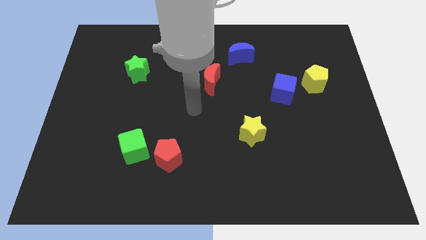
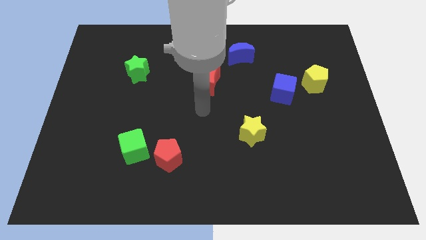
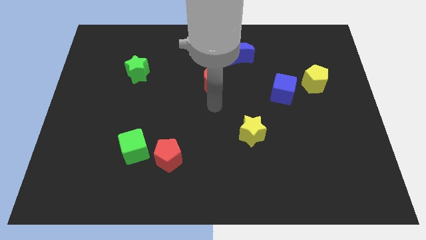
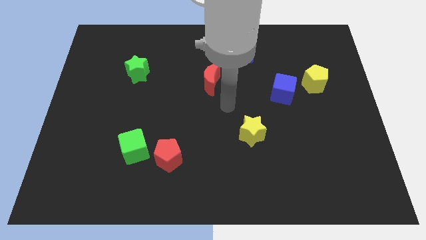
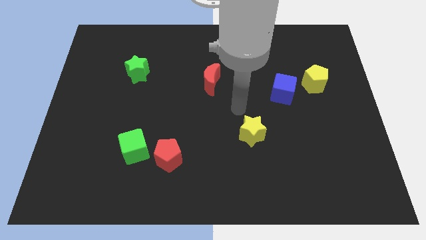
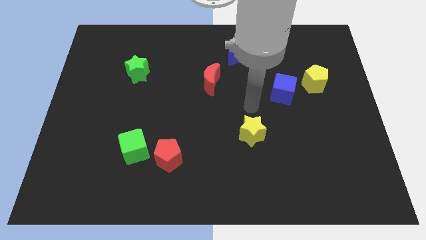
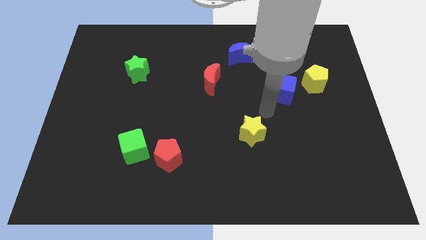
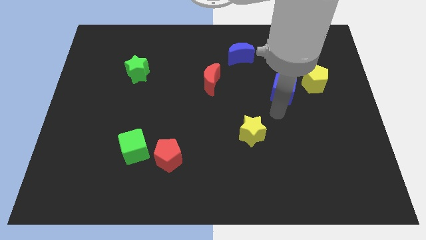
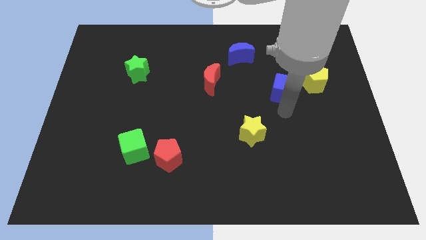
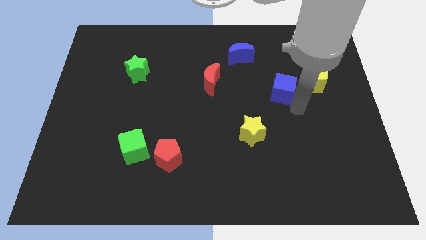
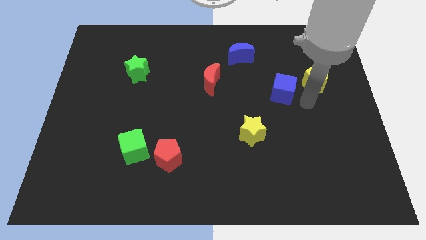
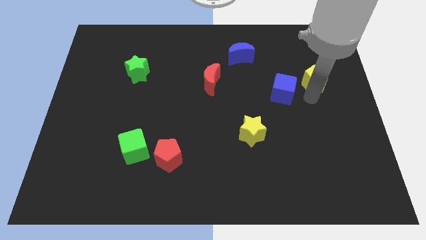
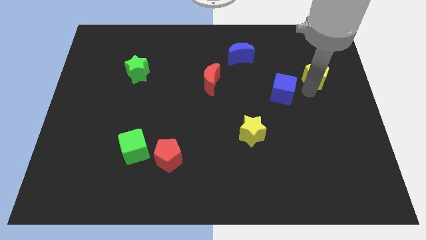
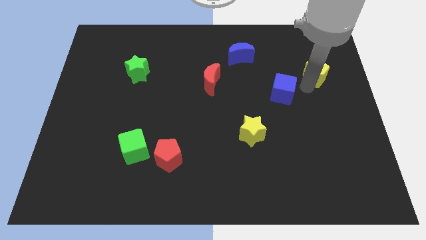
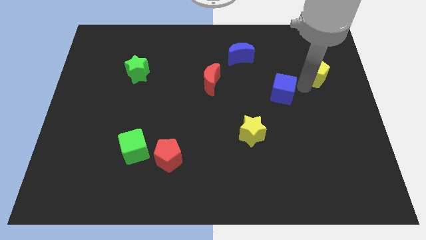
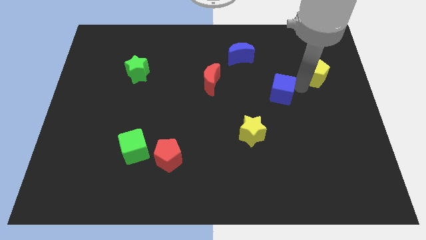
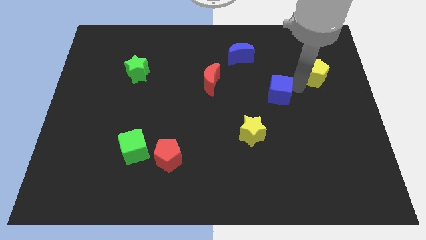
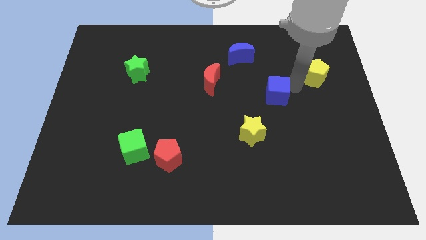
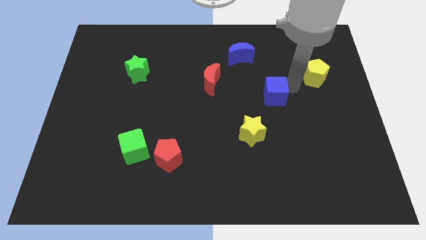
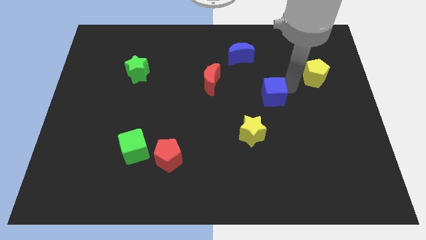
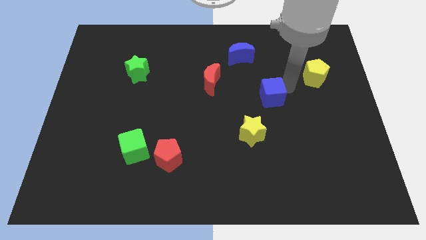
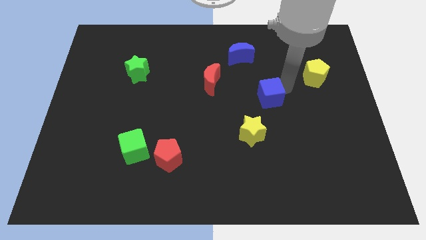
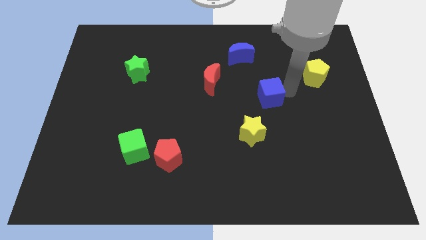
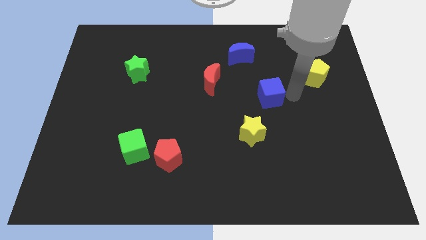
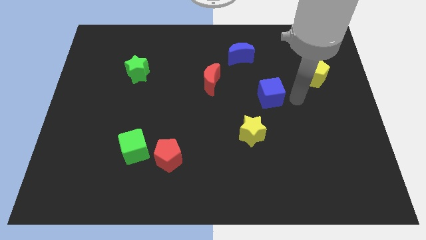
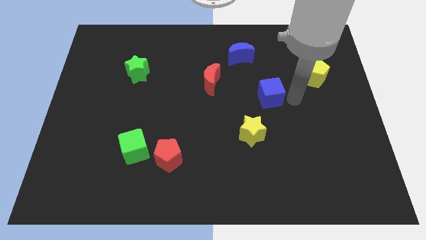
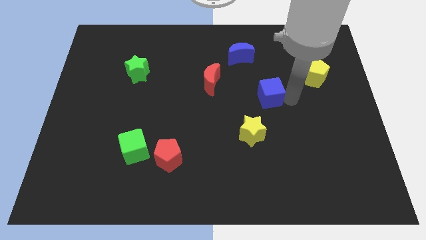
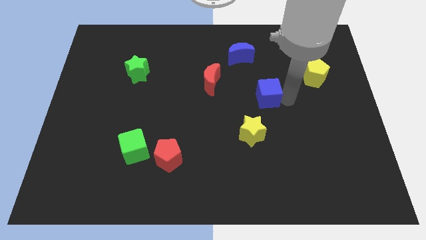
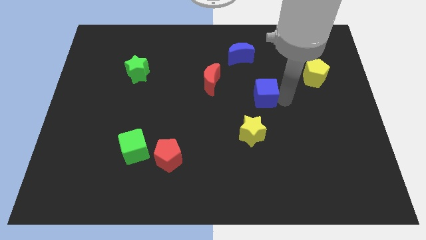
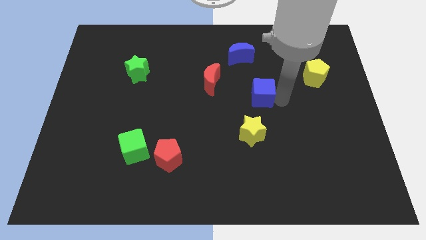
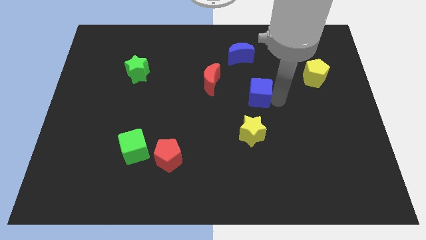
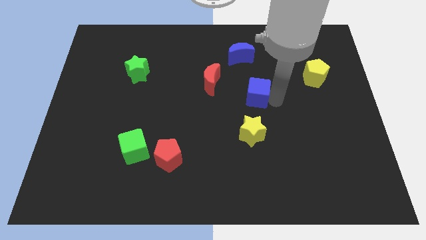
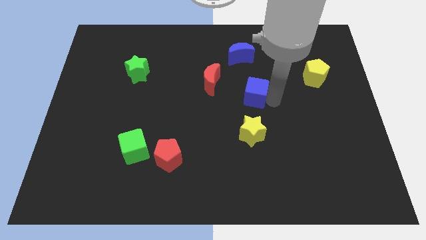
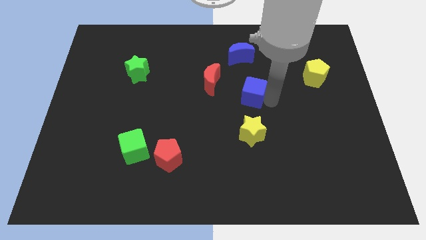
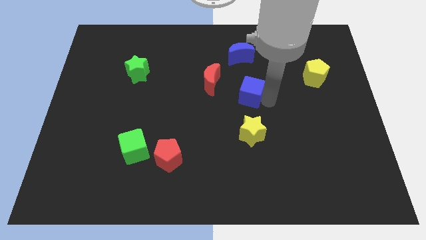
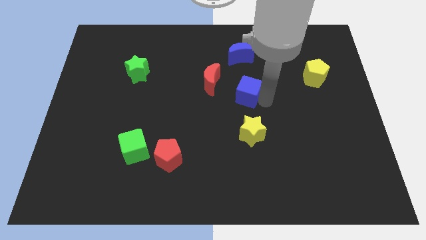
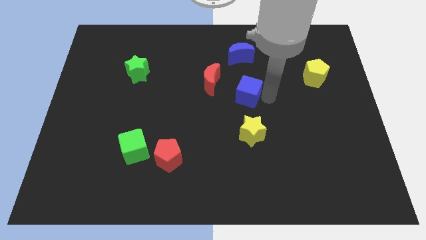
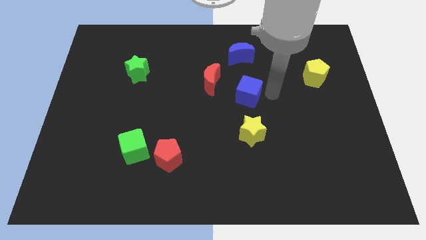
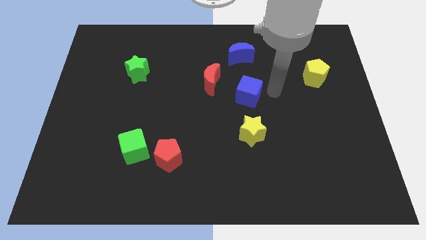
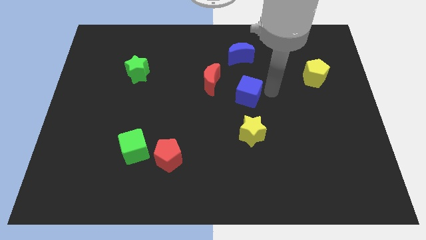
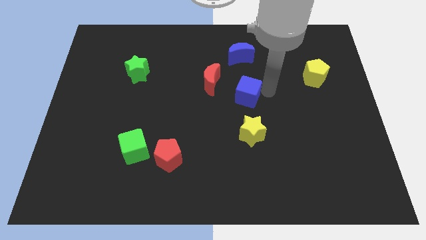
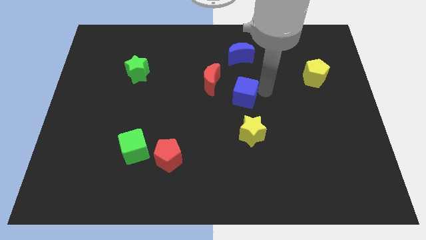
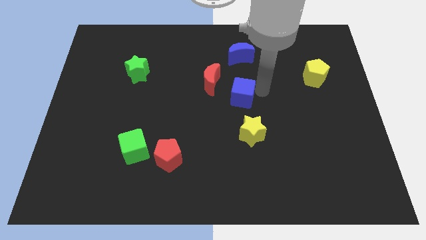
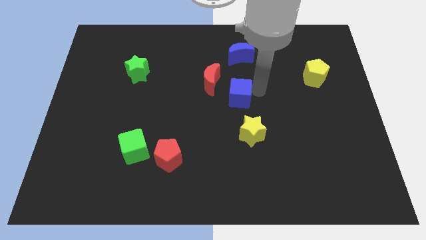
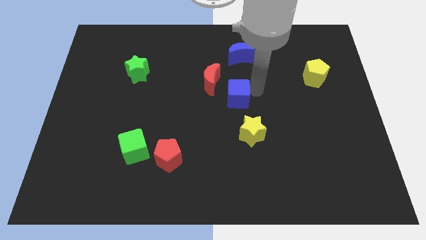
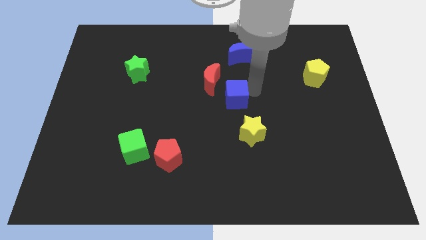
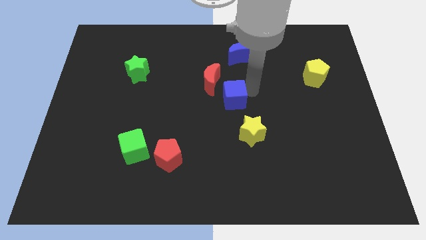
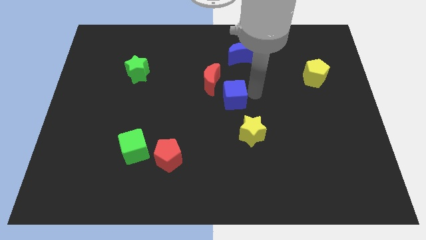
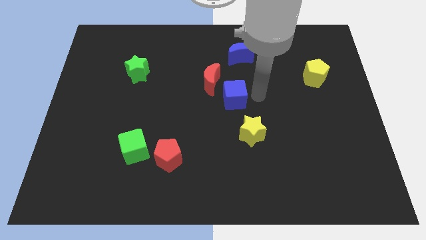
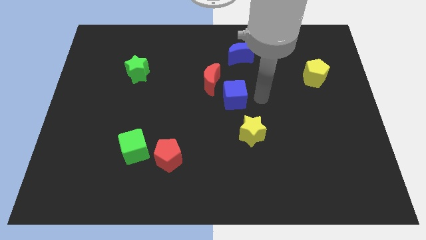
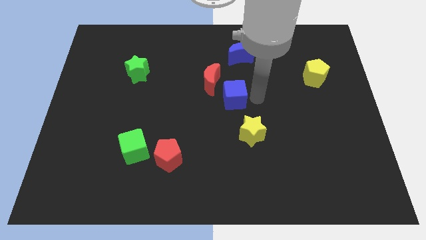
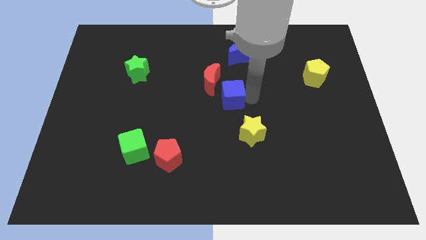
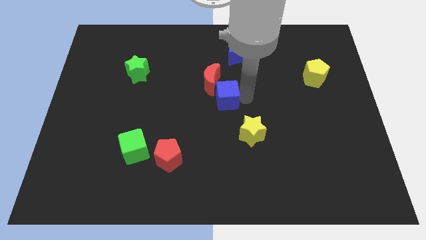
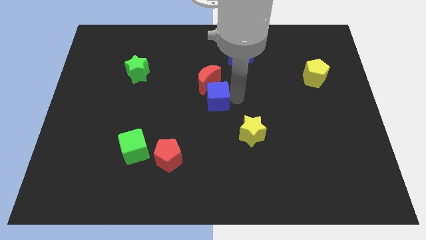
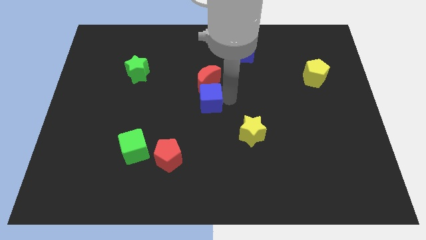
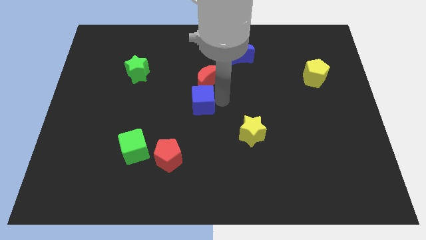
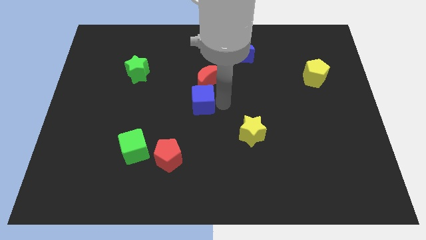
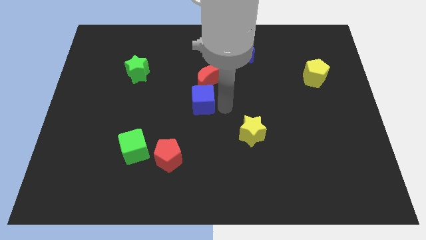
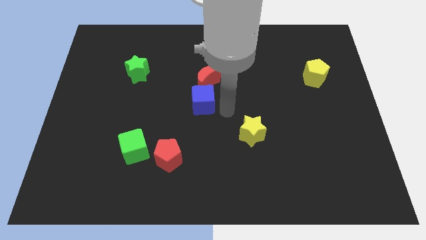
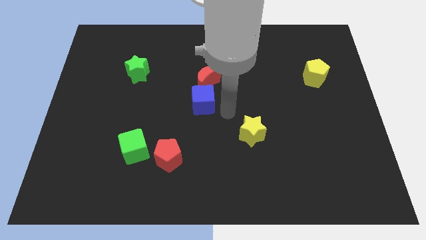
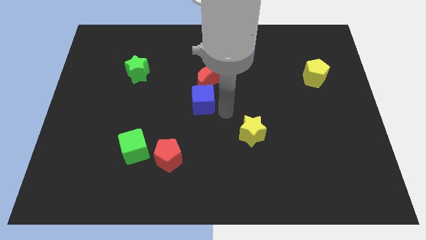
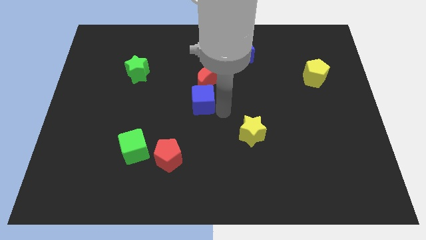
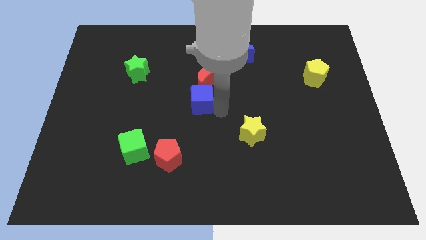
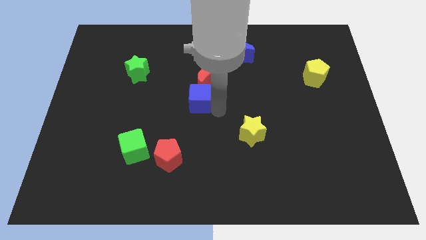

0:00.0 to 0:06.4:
push the blue cube left

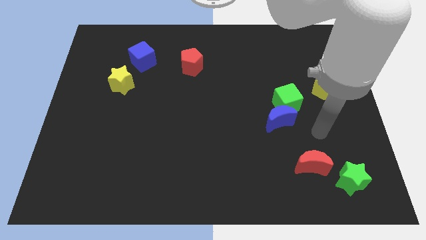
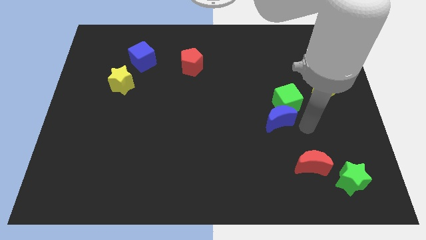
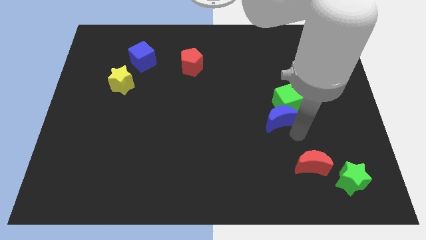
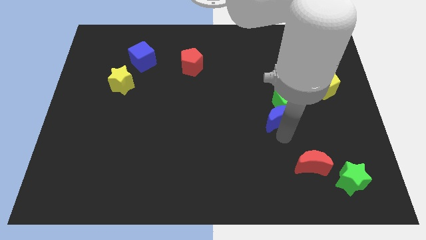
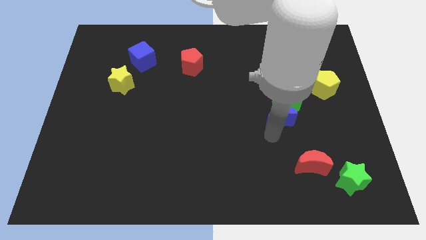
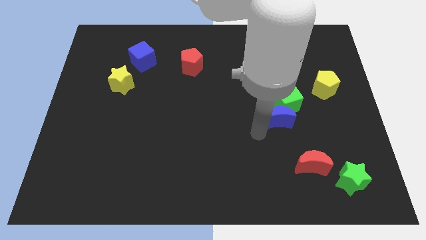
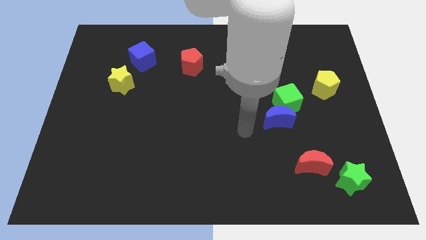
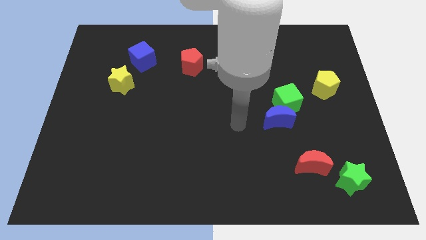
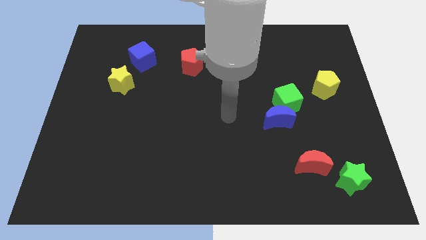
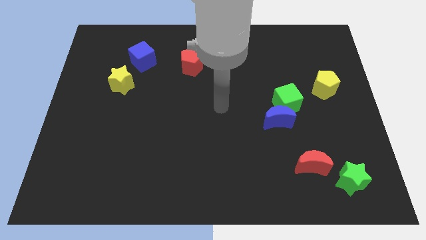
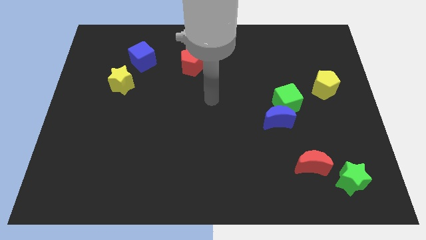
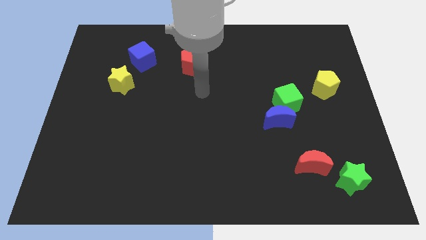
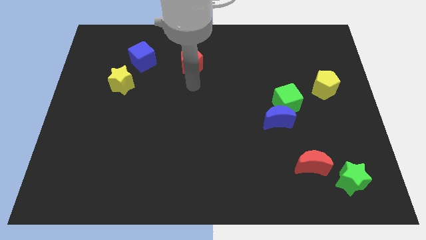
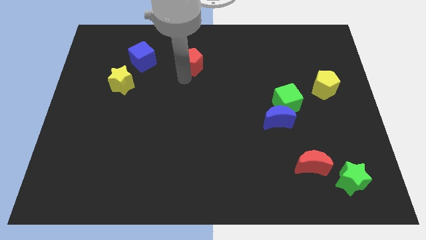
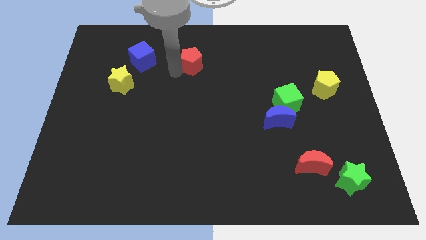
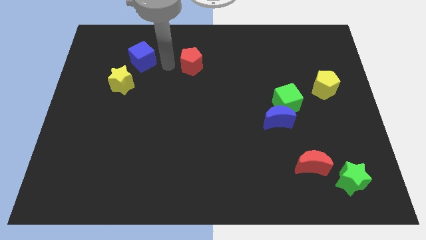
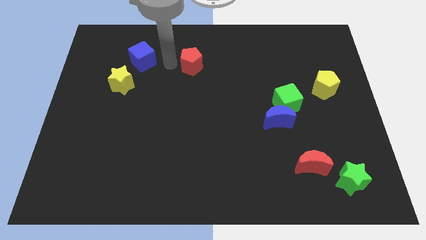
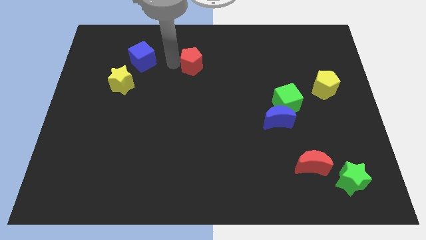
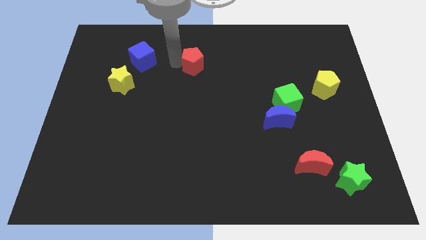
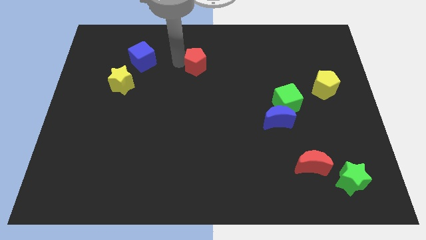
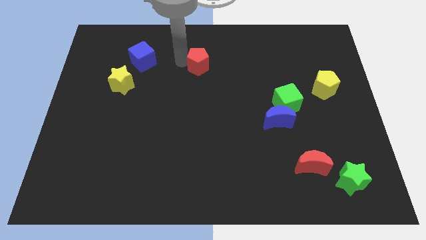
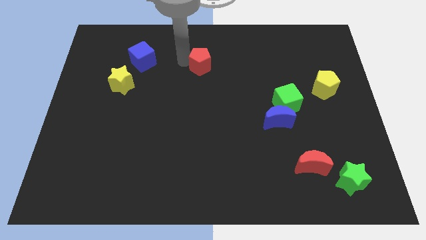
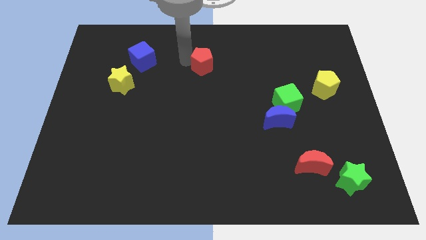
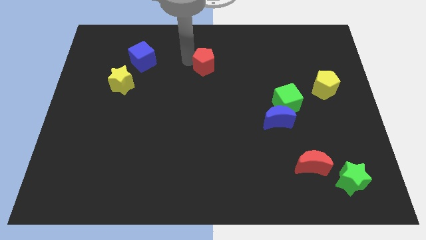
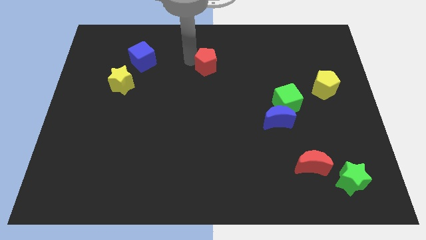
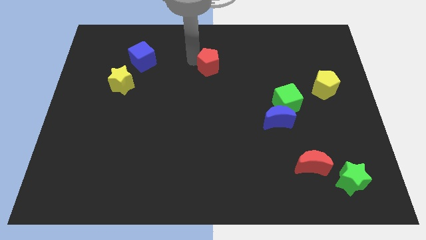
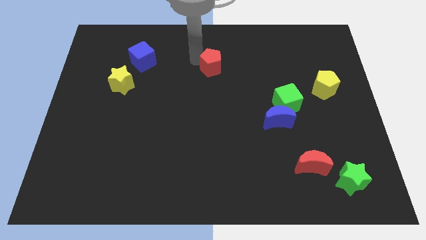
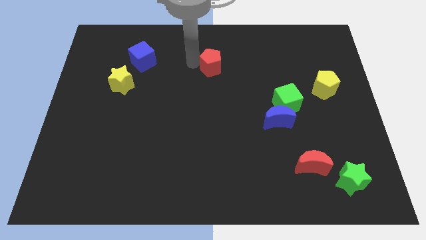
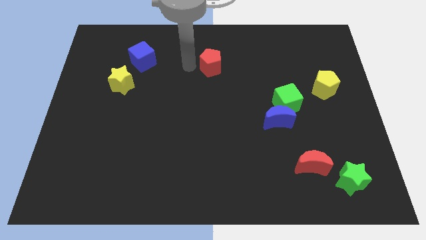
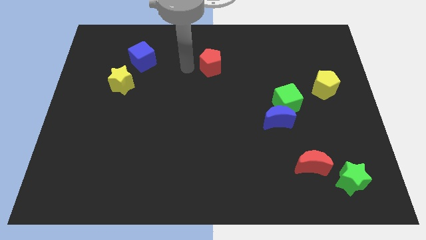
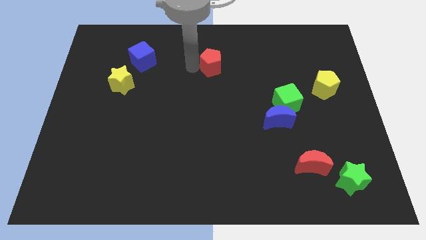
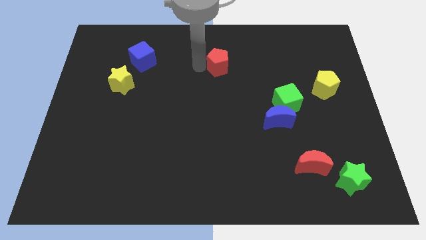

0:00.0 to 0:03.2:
push the red pentagon right a bit
